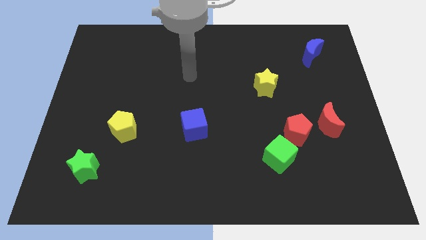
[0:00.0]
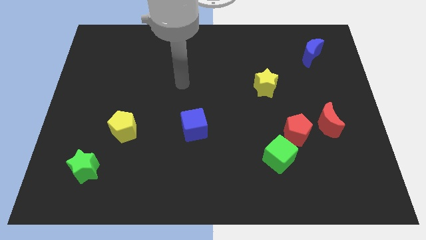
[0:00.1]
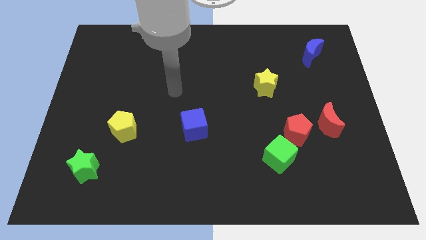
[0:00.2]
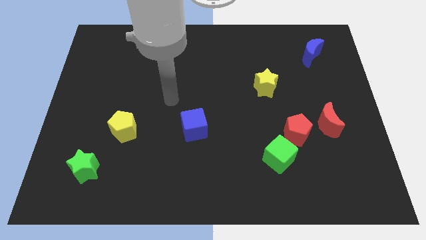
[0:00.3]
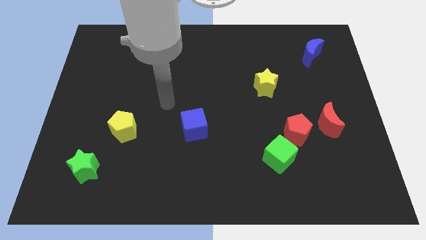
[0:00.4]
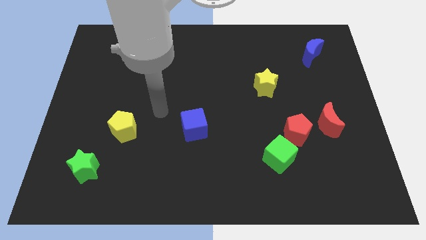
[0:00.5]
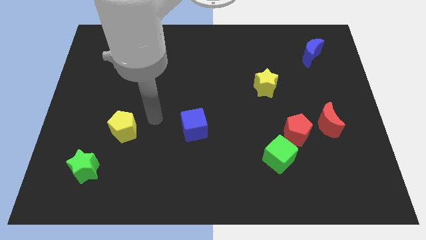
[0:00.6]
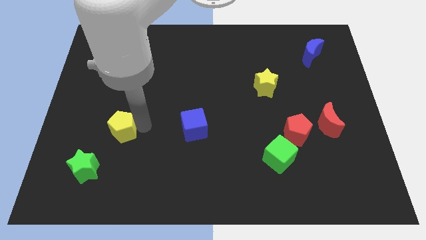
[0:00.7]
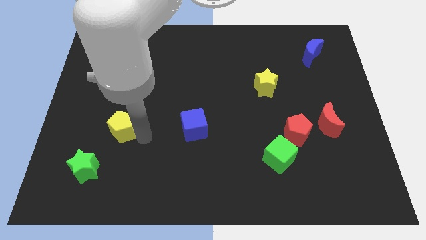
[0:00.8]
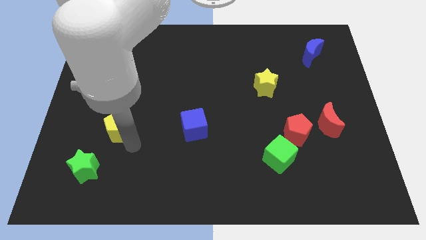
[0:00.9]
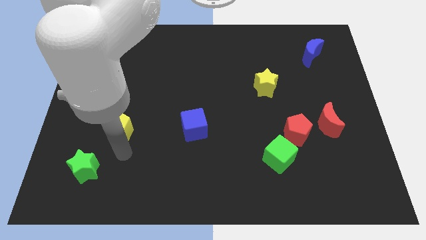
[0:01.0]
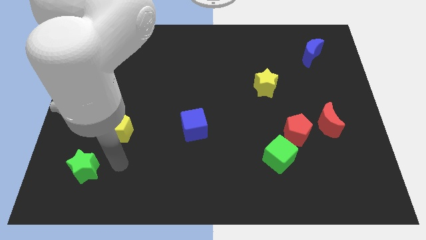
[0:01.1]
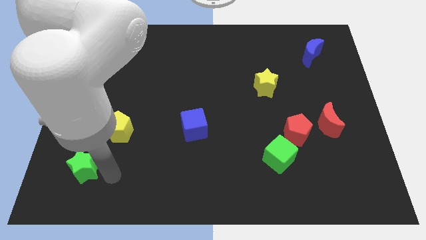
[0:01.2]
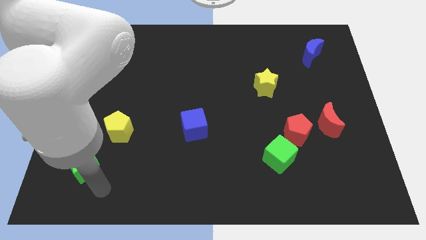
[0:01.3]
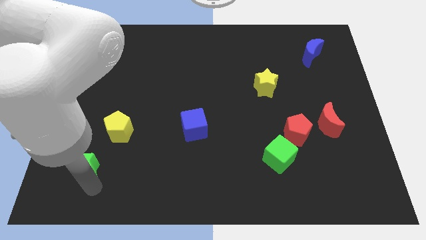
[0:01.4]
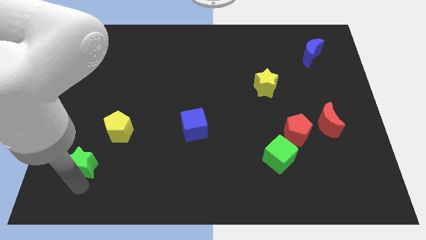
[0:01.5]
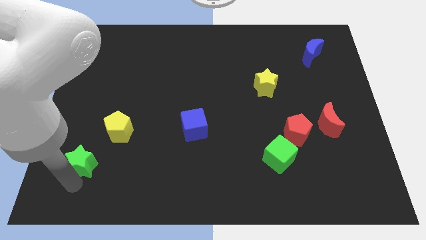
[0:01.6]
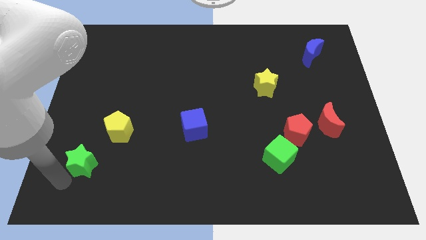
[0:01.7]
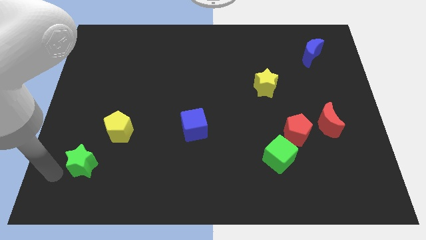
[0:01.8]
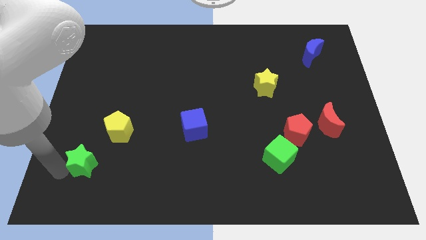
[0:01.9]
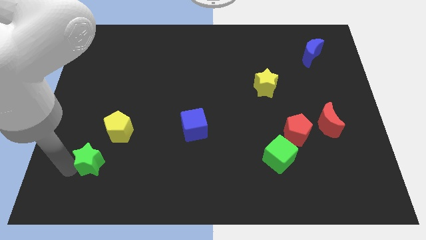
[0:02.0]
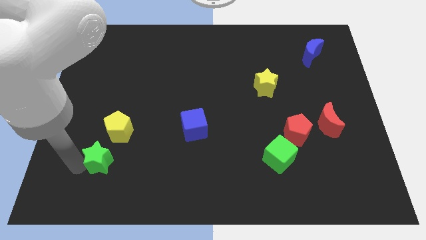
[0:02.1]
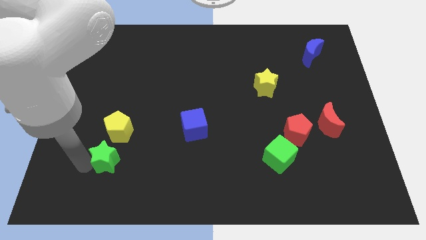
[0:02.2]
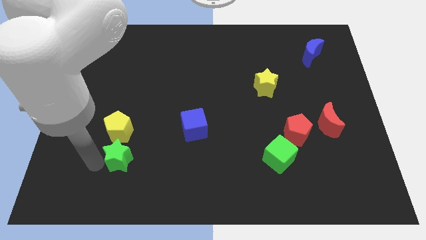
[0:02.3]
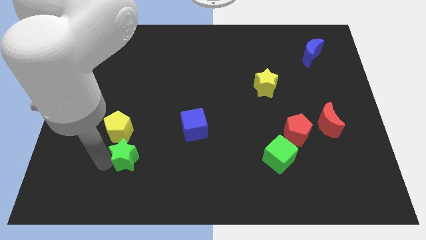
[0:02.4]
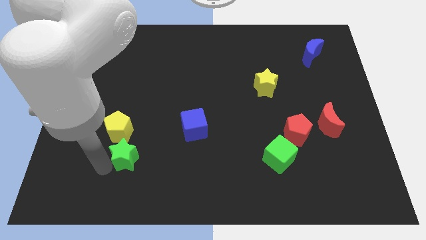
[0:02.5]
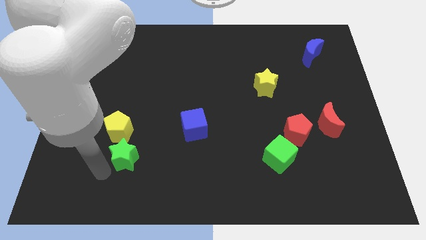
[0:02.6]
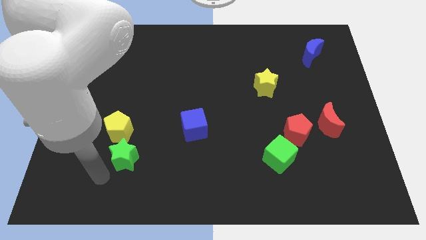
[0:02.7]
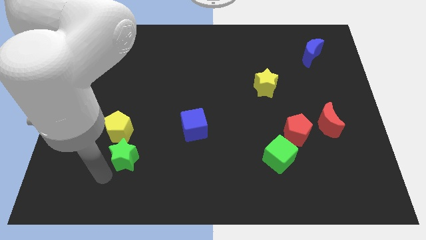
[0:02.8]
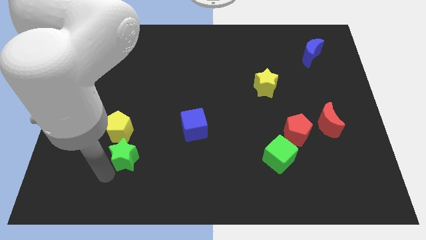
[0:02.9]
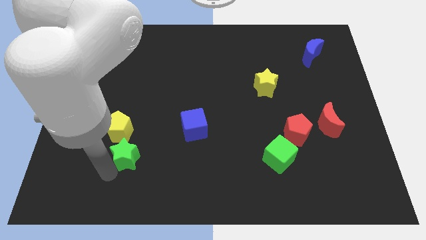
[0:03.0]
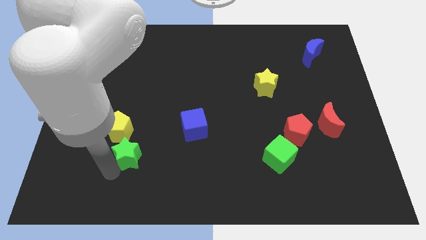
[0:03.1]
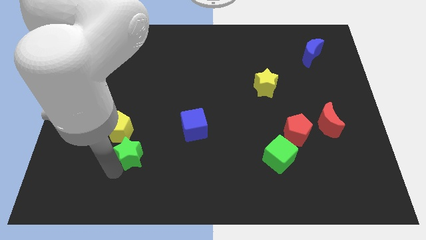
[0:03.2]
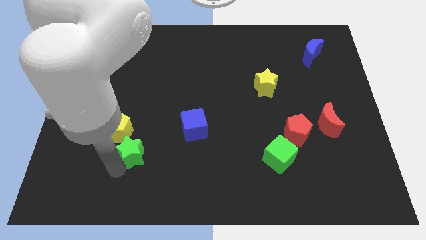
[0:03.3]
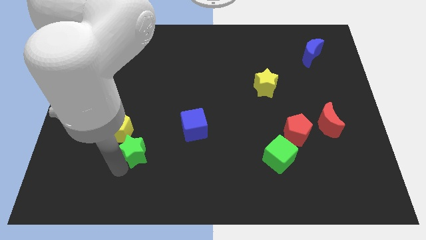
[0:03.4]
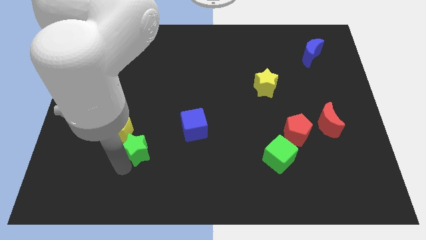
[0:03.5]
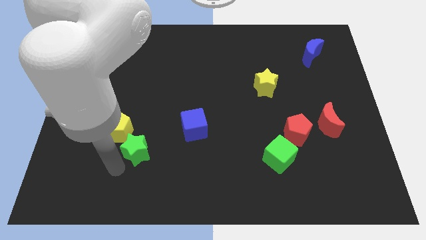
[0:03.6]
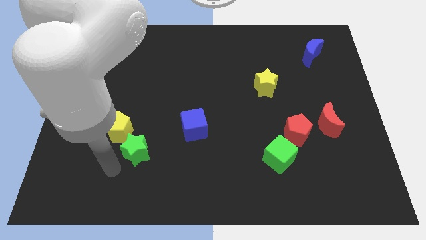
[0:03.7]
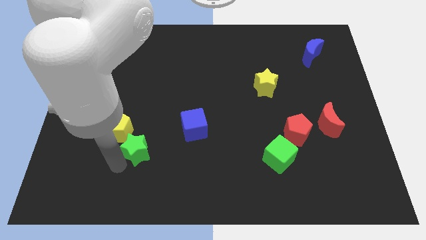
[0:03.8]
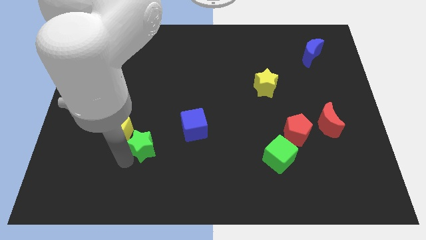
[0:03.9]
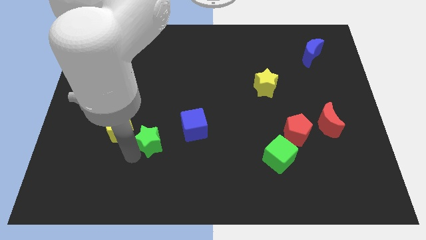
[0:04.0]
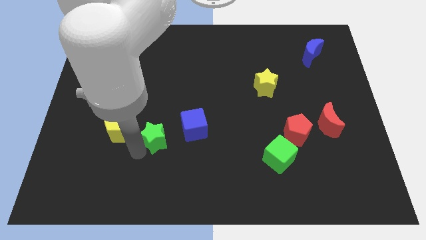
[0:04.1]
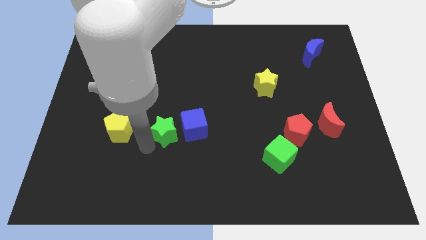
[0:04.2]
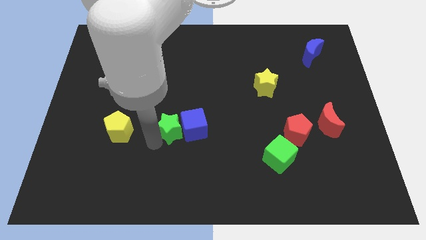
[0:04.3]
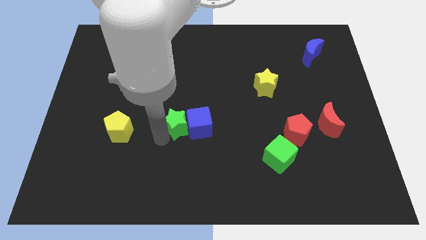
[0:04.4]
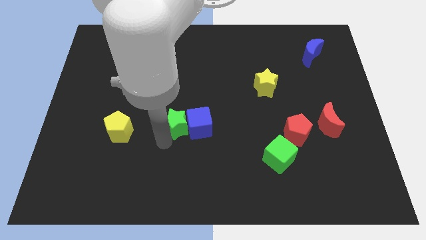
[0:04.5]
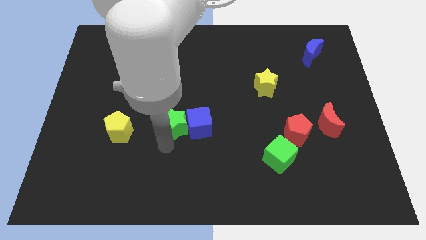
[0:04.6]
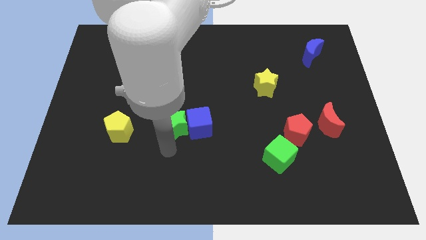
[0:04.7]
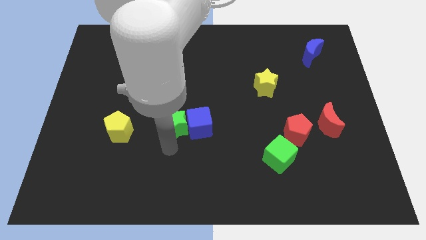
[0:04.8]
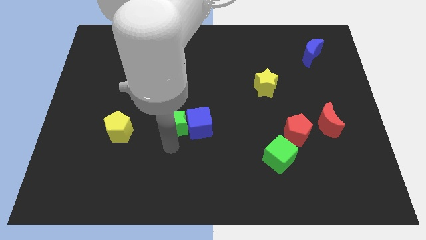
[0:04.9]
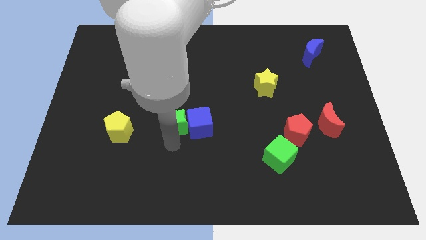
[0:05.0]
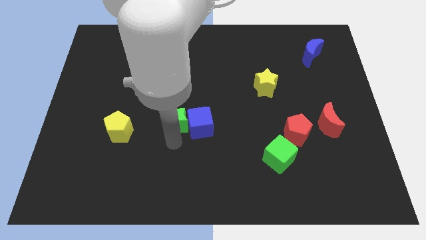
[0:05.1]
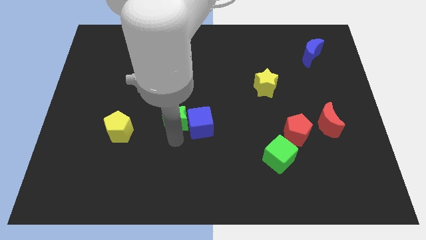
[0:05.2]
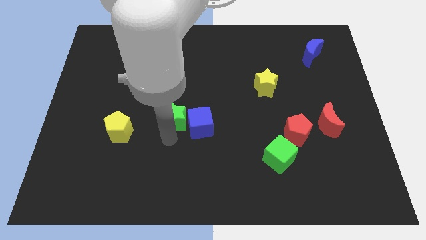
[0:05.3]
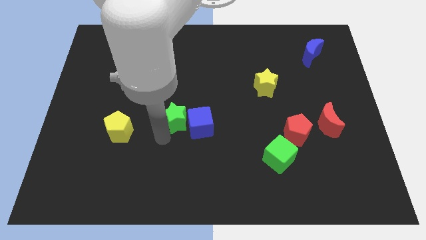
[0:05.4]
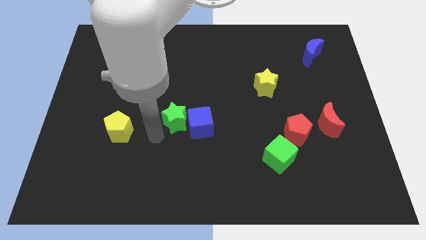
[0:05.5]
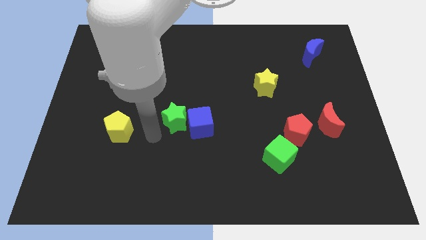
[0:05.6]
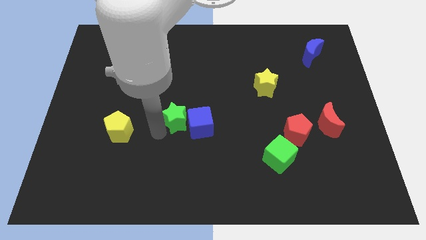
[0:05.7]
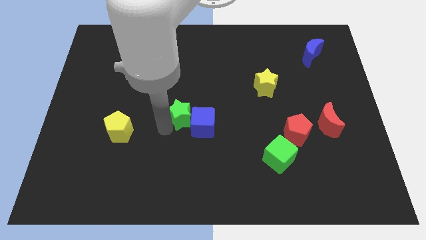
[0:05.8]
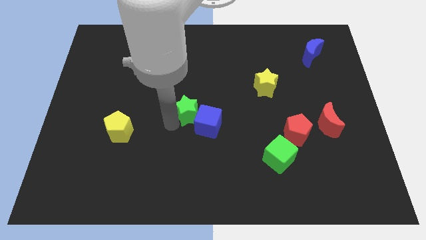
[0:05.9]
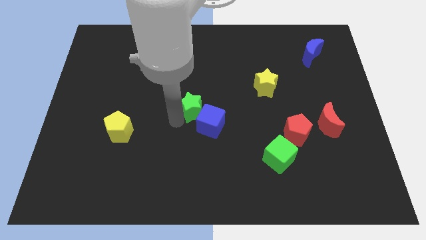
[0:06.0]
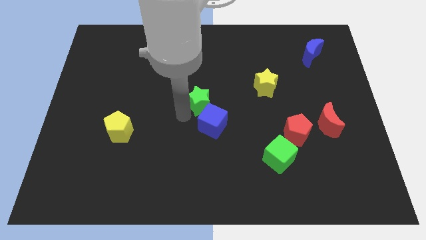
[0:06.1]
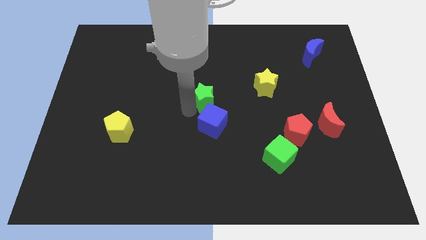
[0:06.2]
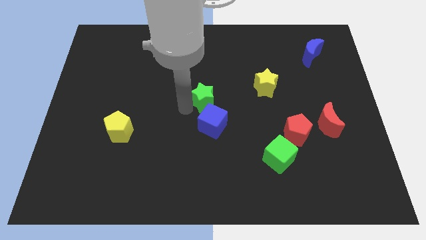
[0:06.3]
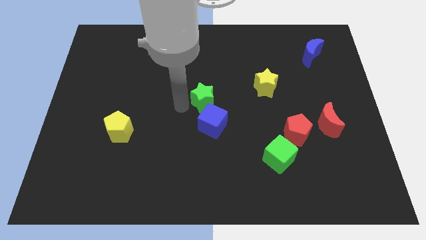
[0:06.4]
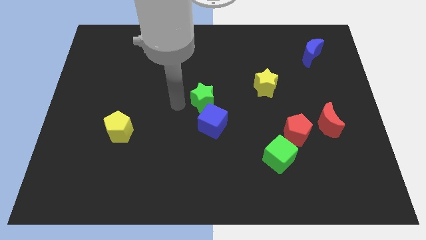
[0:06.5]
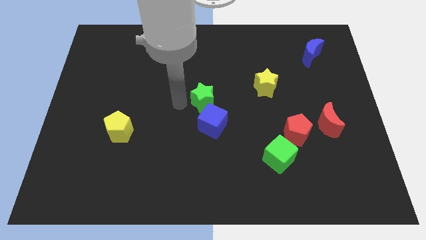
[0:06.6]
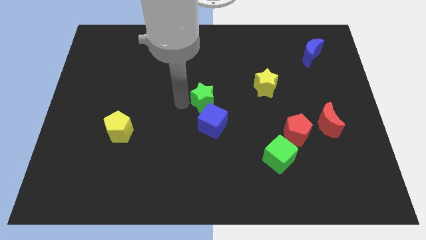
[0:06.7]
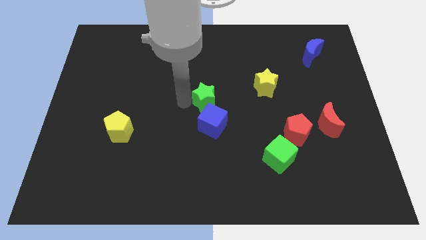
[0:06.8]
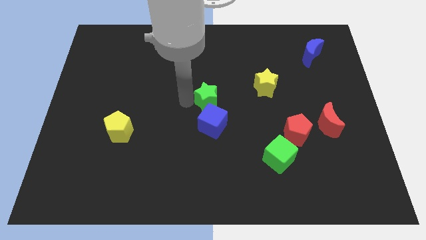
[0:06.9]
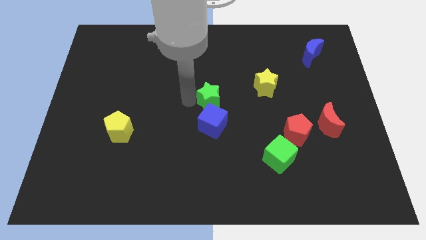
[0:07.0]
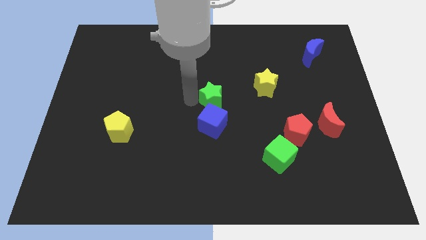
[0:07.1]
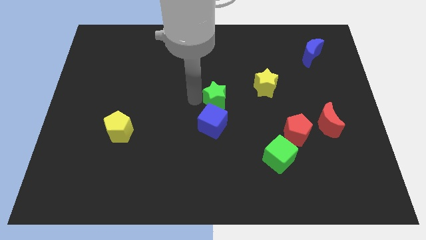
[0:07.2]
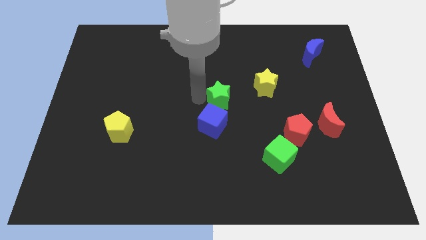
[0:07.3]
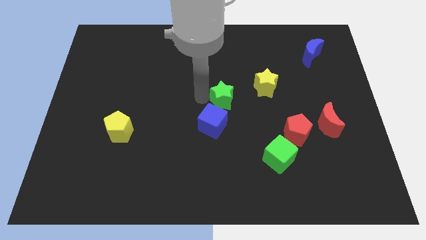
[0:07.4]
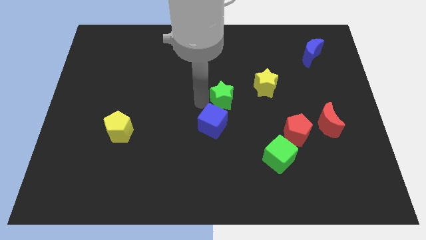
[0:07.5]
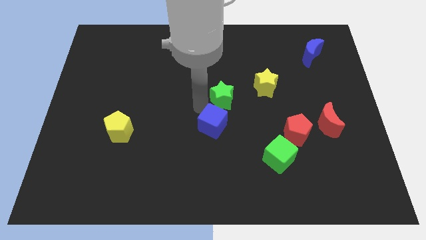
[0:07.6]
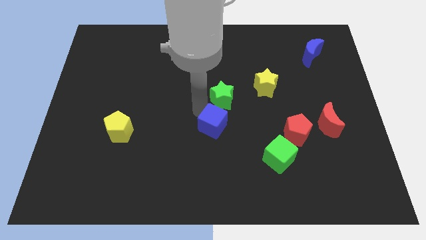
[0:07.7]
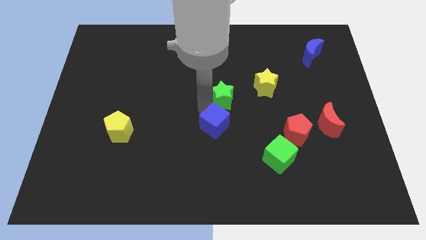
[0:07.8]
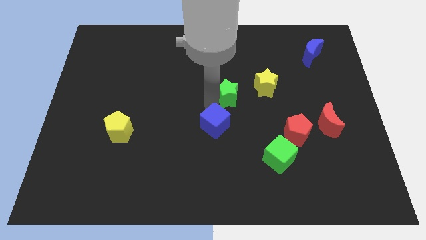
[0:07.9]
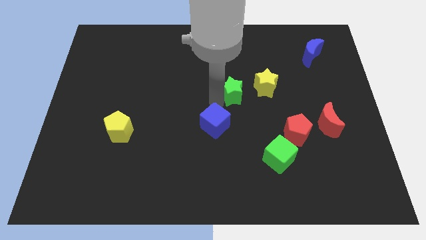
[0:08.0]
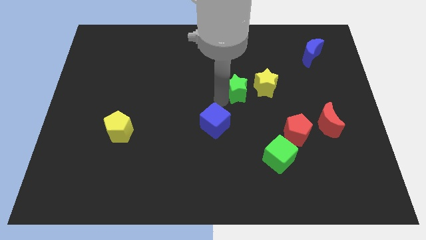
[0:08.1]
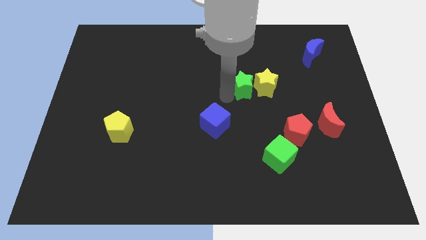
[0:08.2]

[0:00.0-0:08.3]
put the green star to the yellow star
